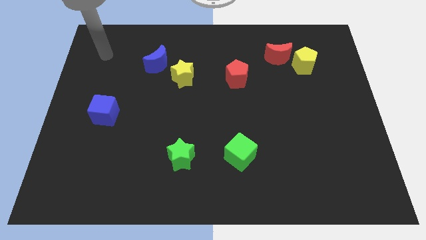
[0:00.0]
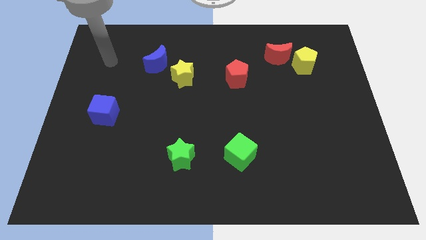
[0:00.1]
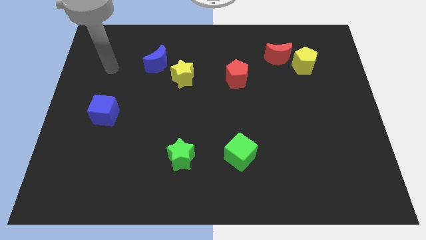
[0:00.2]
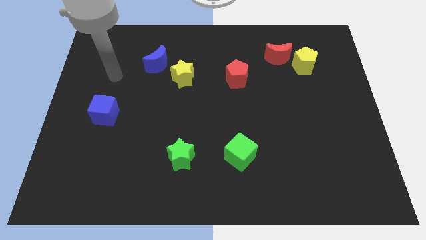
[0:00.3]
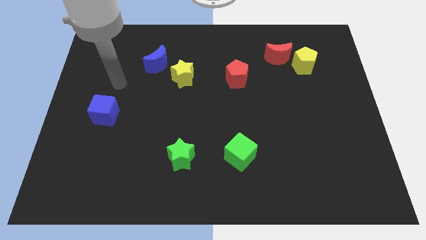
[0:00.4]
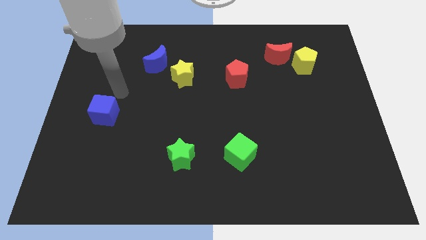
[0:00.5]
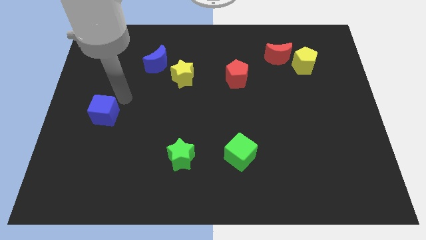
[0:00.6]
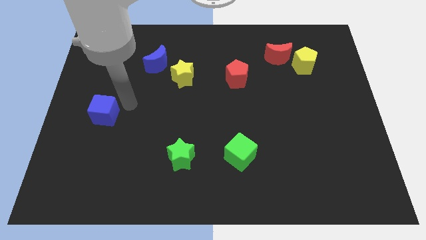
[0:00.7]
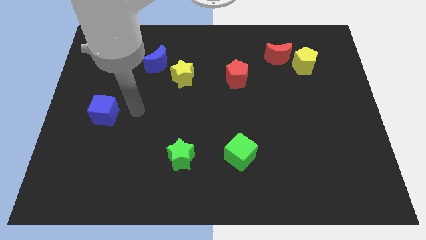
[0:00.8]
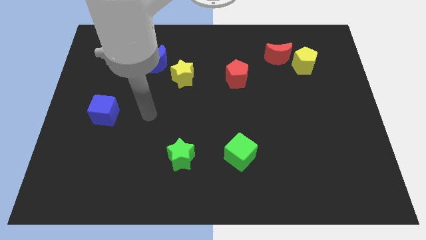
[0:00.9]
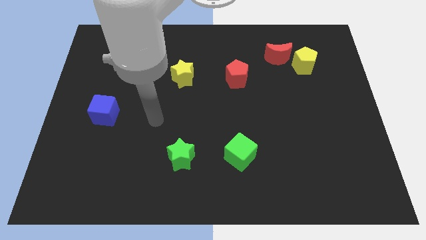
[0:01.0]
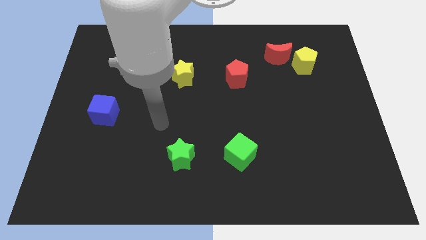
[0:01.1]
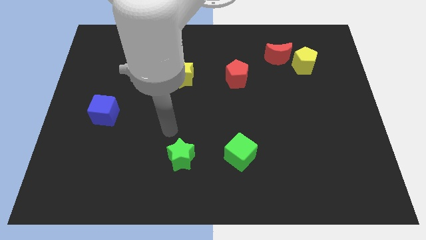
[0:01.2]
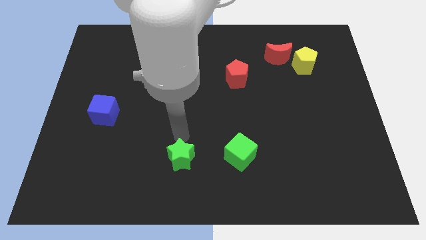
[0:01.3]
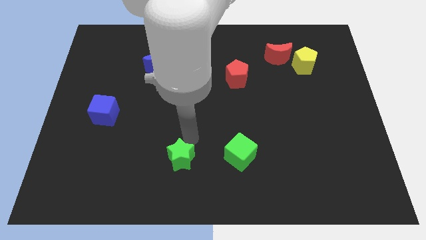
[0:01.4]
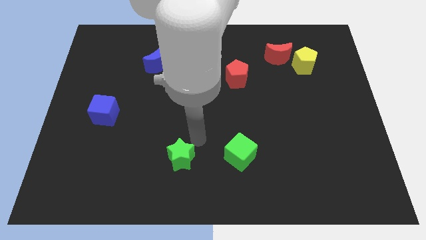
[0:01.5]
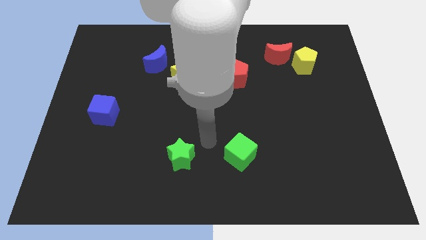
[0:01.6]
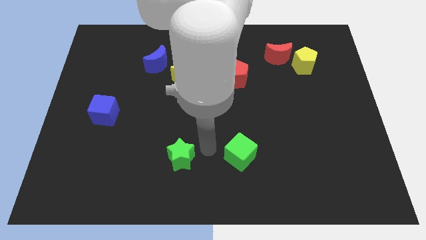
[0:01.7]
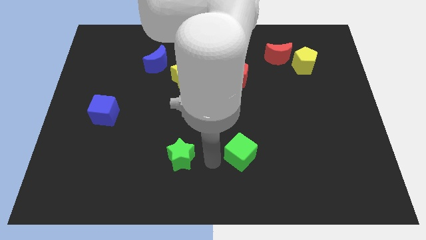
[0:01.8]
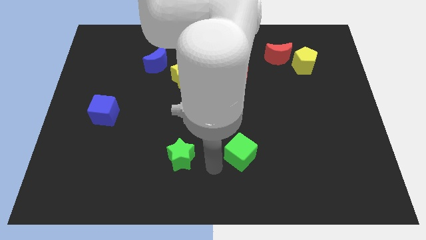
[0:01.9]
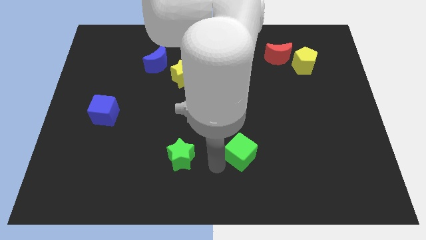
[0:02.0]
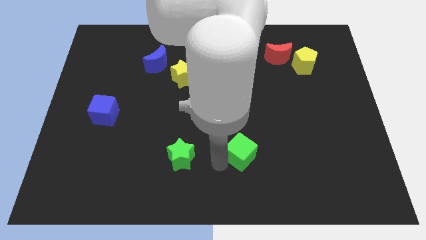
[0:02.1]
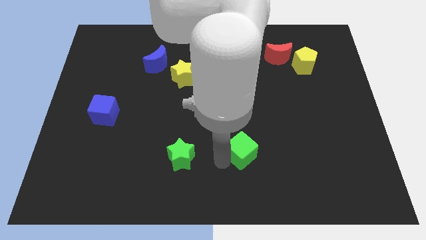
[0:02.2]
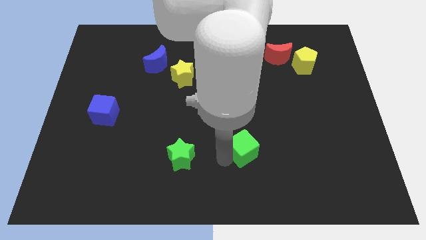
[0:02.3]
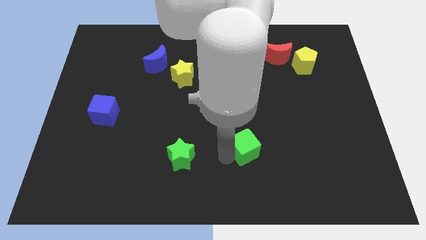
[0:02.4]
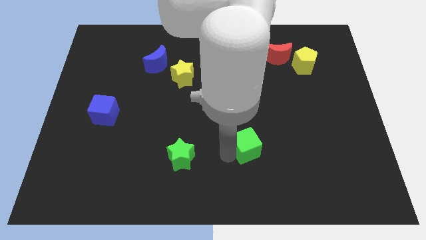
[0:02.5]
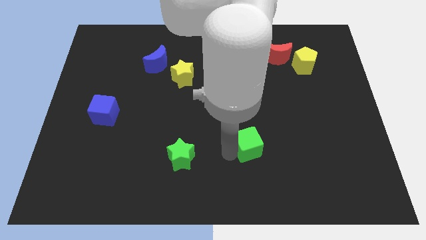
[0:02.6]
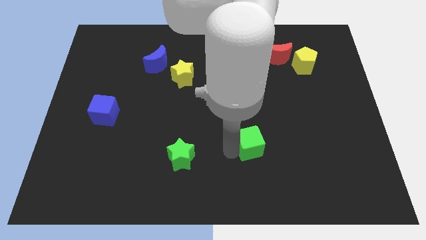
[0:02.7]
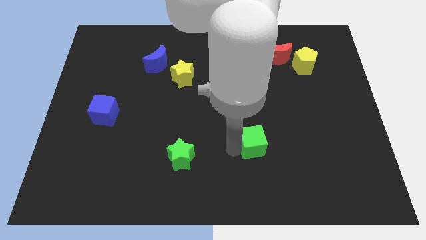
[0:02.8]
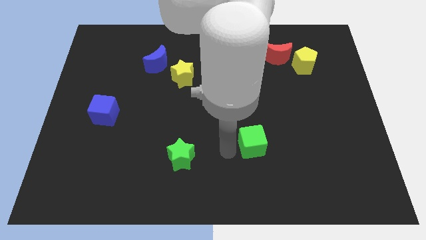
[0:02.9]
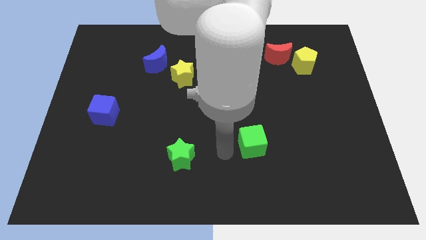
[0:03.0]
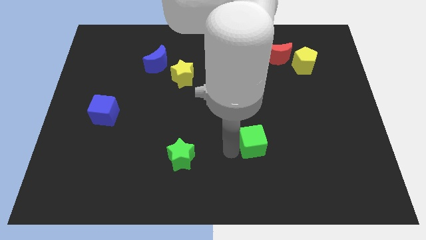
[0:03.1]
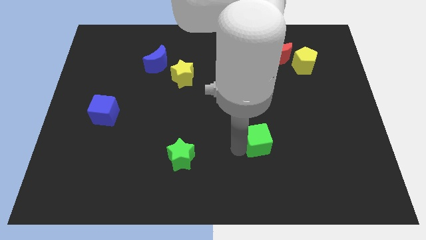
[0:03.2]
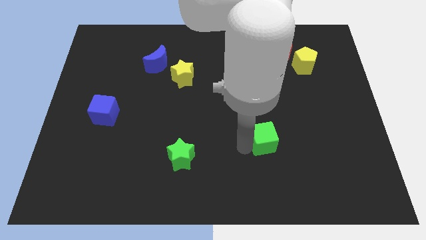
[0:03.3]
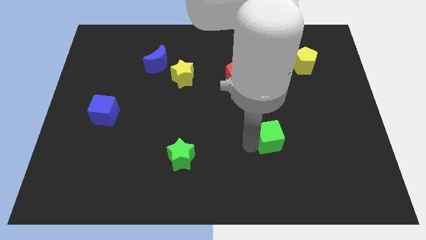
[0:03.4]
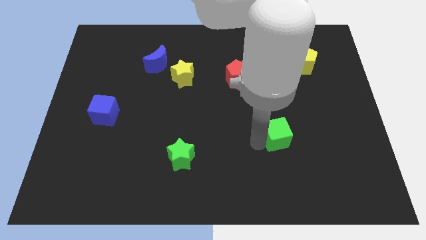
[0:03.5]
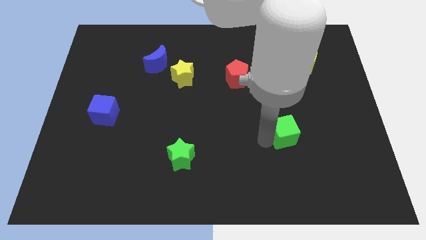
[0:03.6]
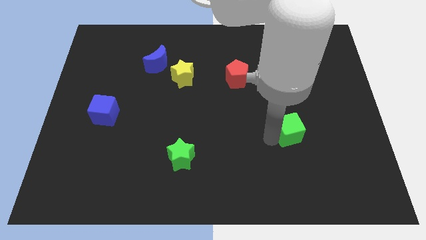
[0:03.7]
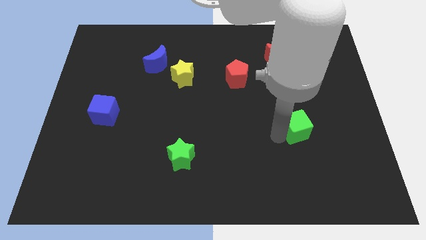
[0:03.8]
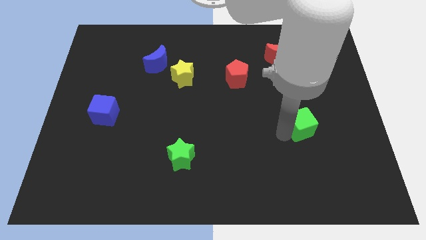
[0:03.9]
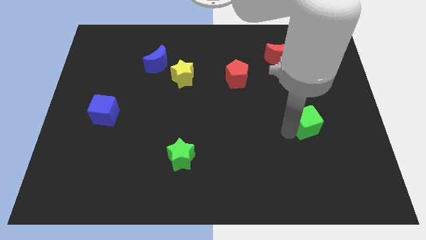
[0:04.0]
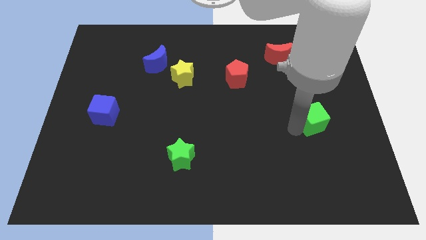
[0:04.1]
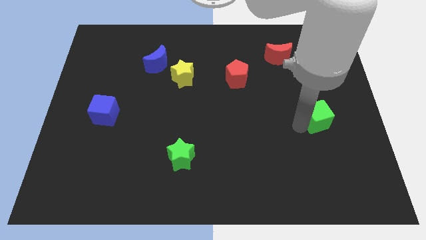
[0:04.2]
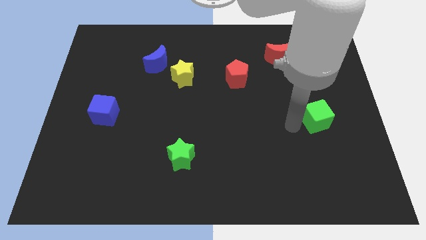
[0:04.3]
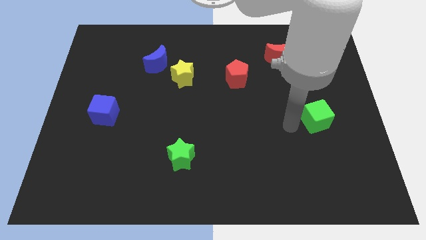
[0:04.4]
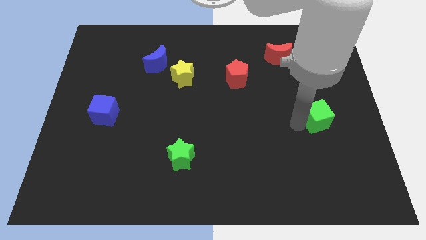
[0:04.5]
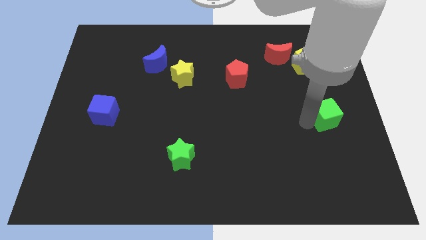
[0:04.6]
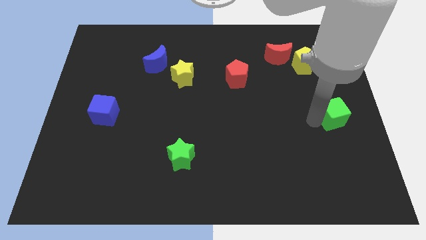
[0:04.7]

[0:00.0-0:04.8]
move the green cube to the center right

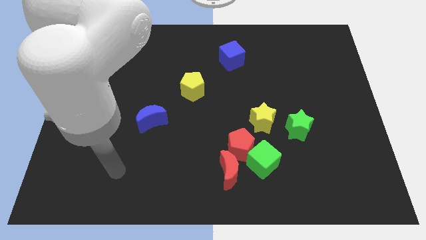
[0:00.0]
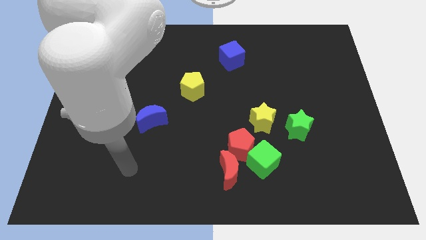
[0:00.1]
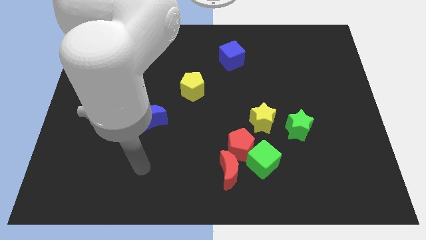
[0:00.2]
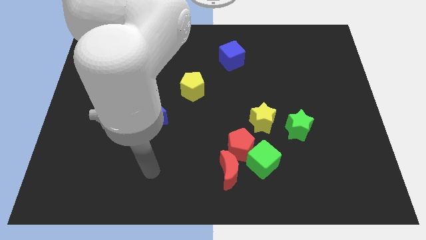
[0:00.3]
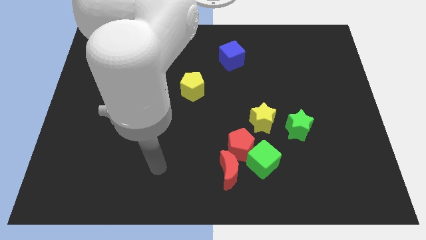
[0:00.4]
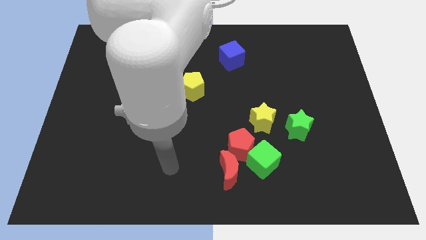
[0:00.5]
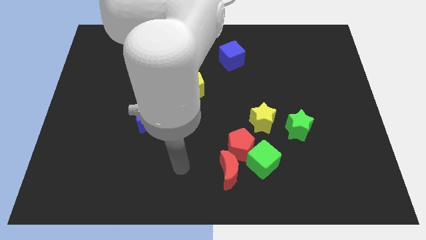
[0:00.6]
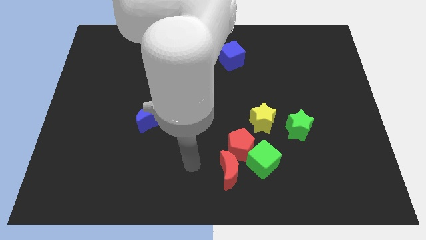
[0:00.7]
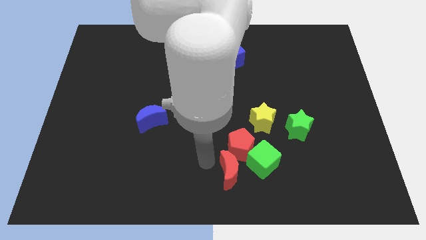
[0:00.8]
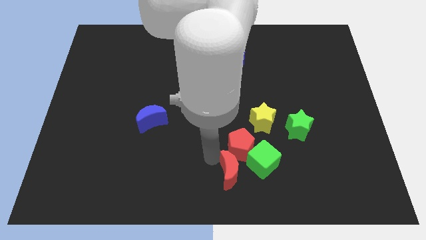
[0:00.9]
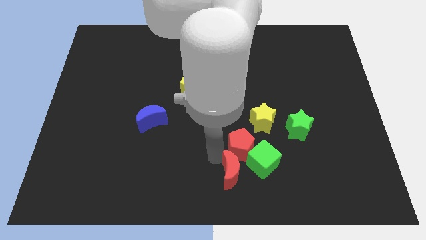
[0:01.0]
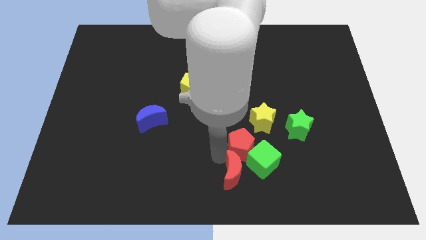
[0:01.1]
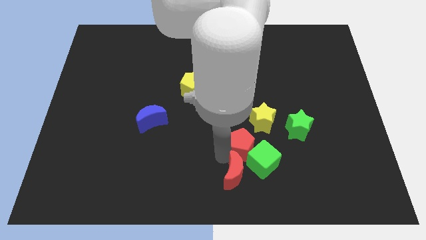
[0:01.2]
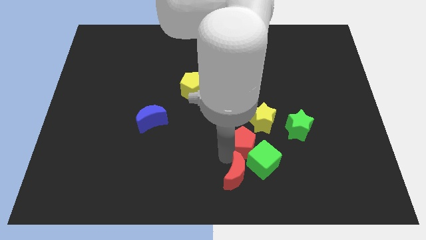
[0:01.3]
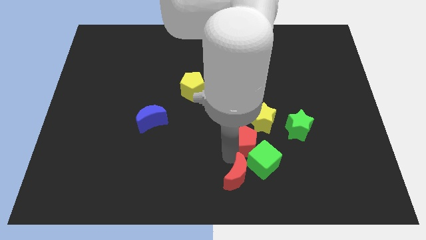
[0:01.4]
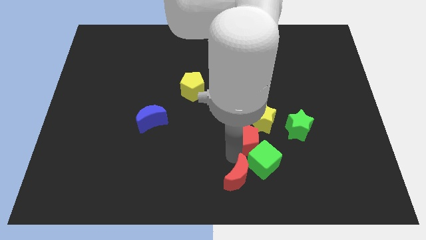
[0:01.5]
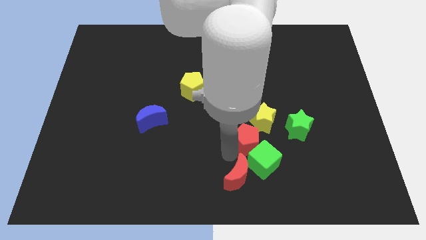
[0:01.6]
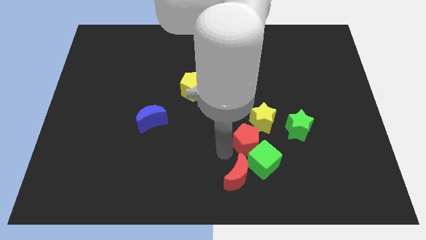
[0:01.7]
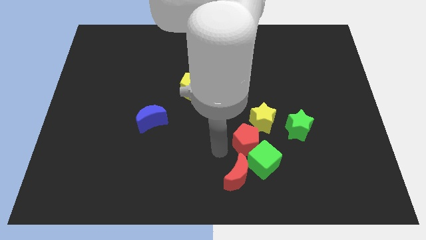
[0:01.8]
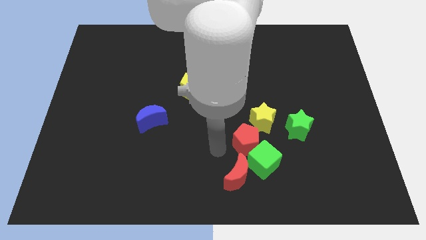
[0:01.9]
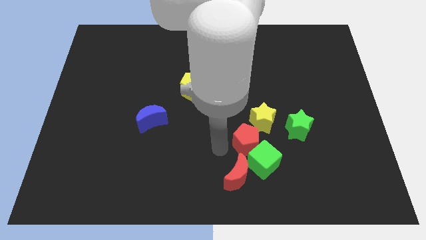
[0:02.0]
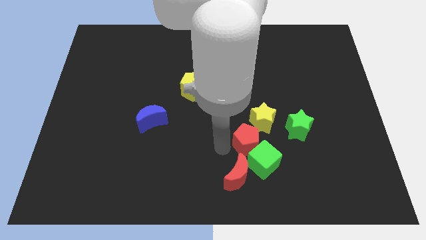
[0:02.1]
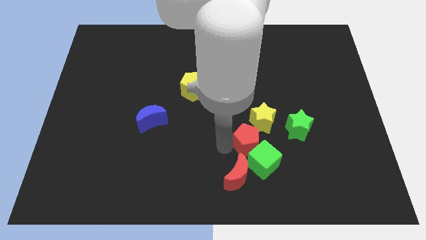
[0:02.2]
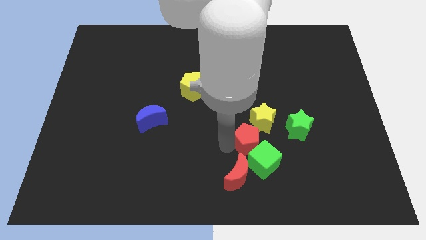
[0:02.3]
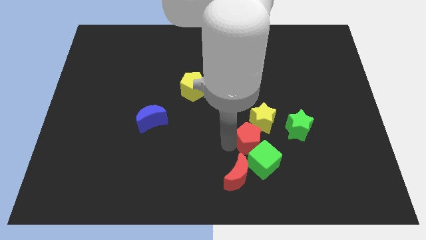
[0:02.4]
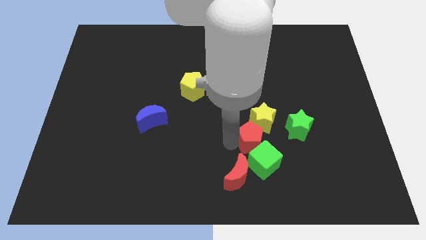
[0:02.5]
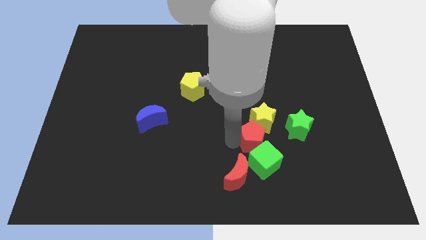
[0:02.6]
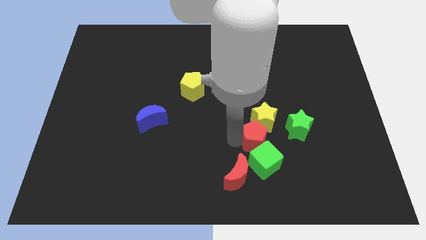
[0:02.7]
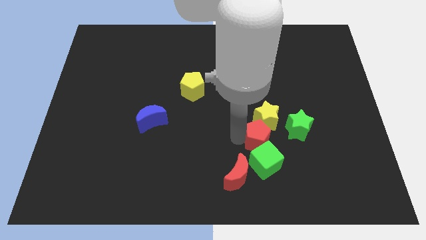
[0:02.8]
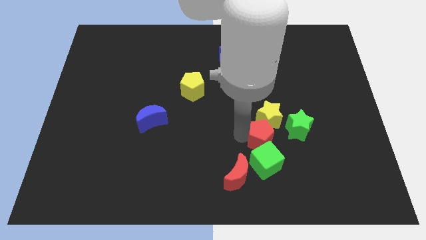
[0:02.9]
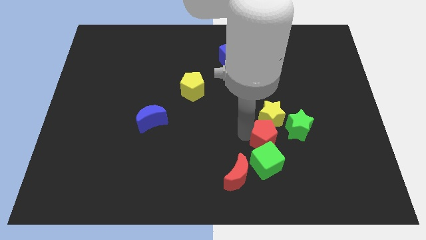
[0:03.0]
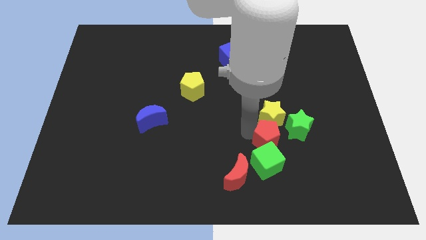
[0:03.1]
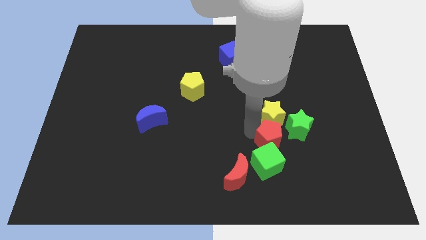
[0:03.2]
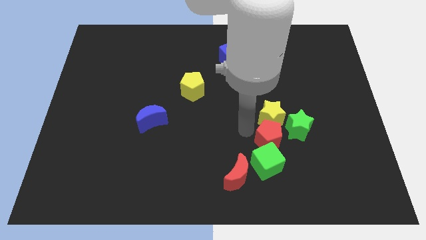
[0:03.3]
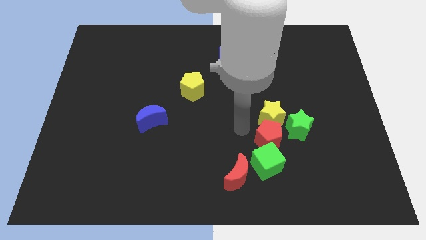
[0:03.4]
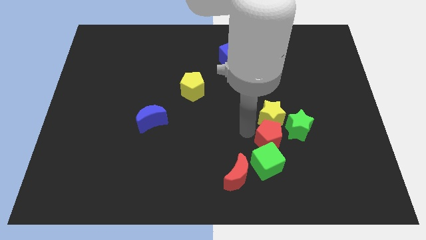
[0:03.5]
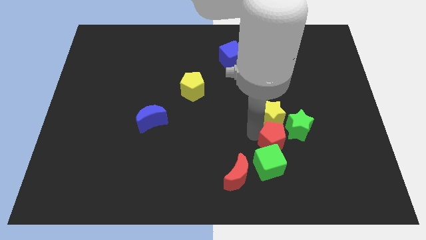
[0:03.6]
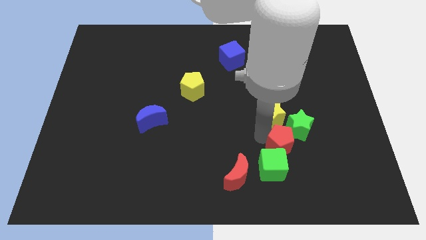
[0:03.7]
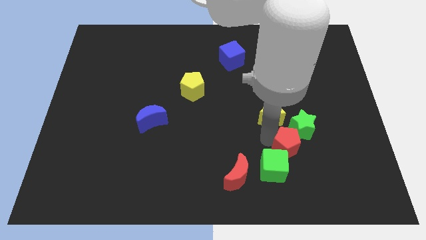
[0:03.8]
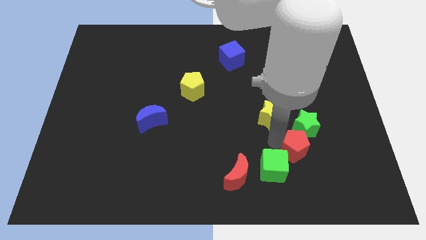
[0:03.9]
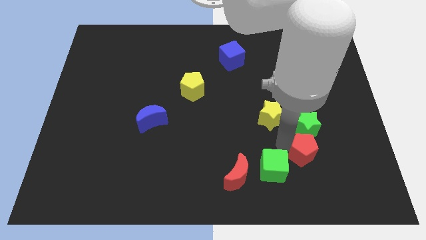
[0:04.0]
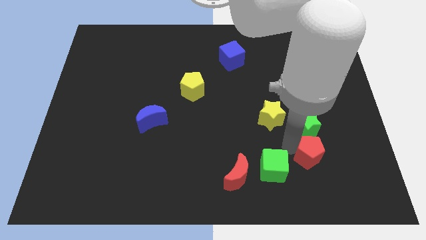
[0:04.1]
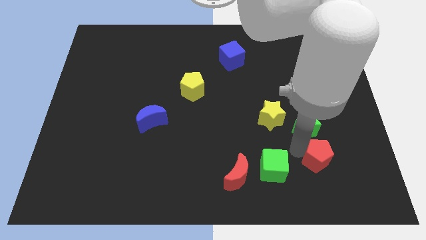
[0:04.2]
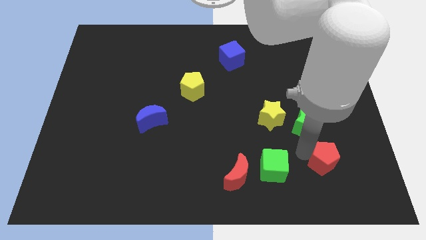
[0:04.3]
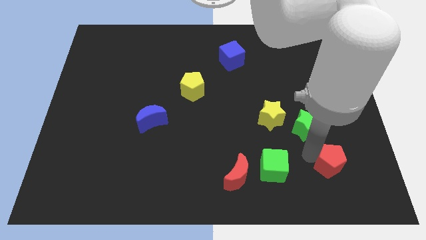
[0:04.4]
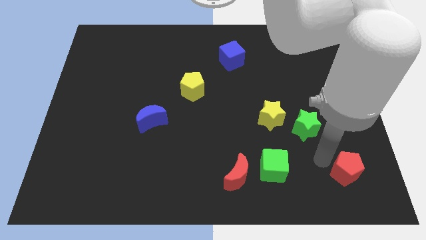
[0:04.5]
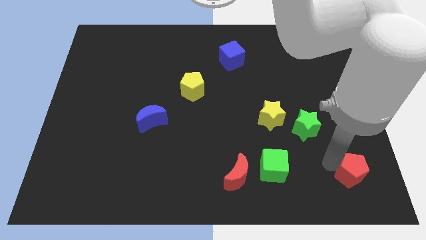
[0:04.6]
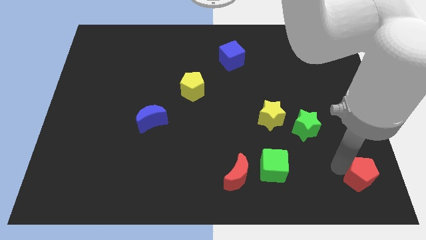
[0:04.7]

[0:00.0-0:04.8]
push the red pentagon to the lower right corner
